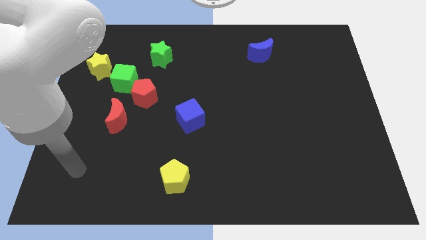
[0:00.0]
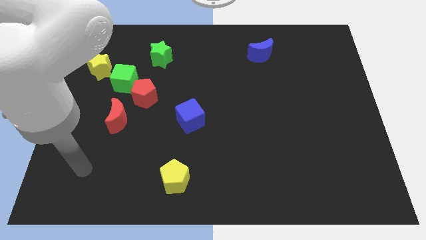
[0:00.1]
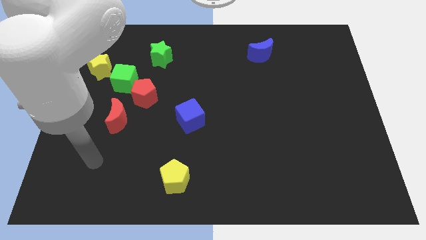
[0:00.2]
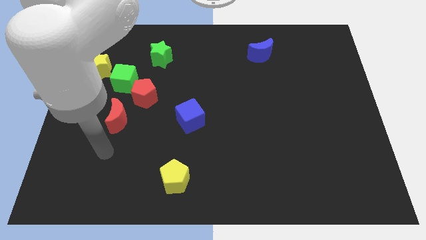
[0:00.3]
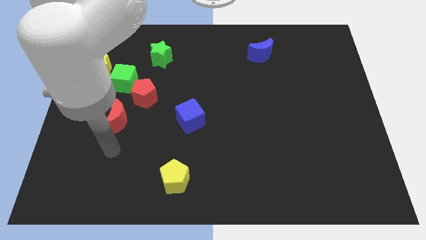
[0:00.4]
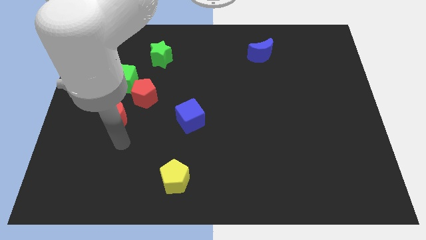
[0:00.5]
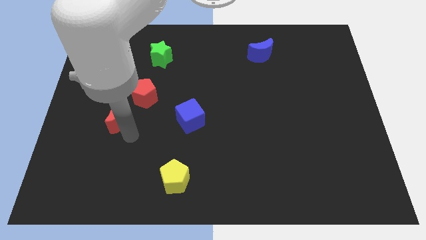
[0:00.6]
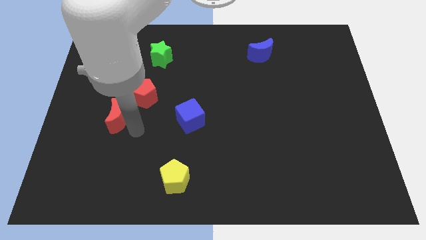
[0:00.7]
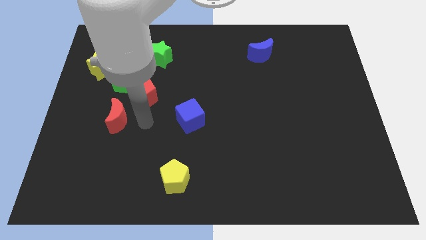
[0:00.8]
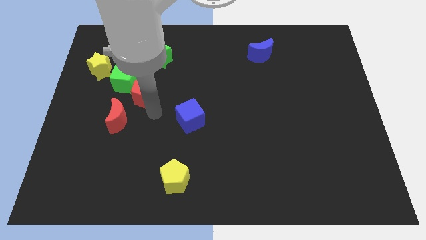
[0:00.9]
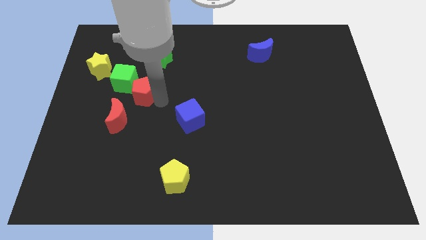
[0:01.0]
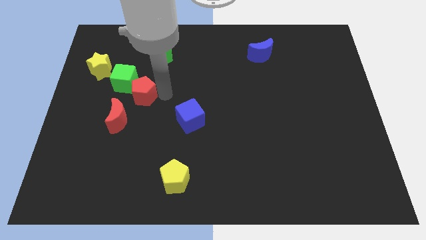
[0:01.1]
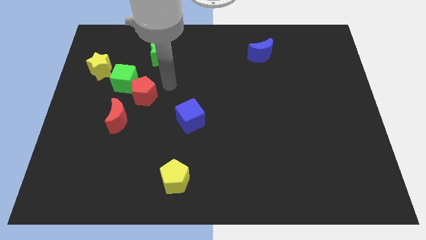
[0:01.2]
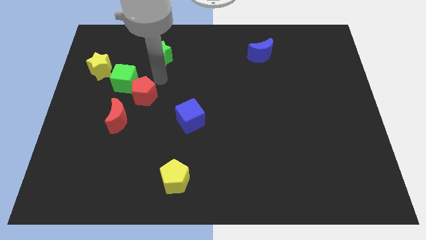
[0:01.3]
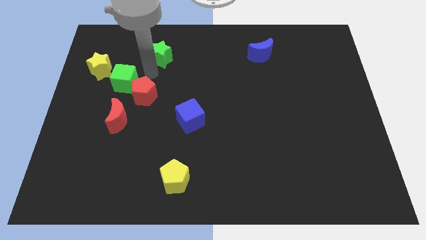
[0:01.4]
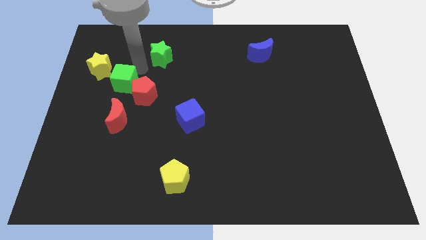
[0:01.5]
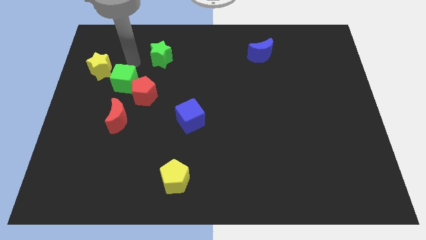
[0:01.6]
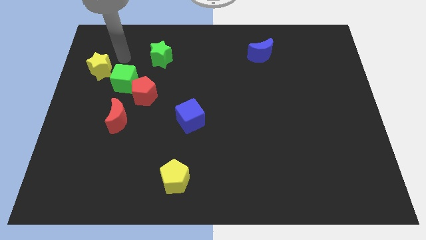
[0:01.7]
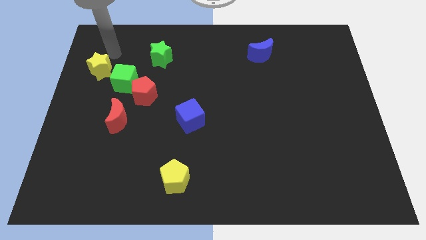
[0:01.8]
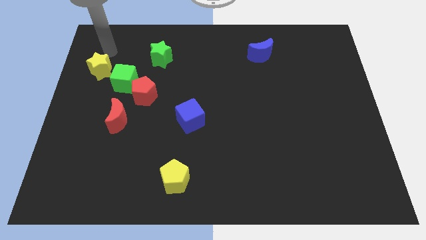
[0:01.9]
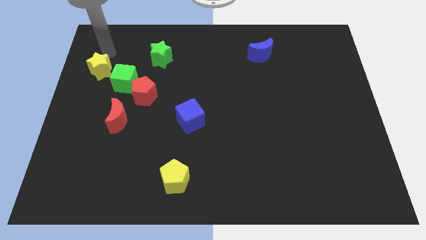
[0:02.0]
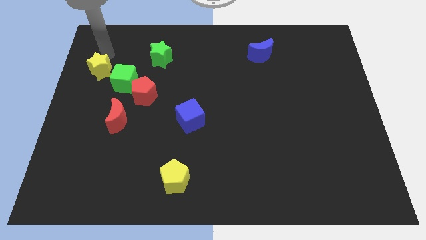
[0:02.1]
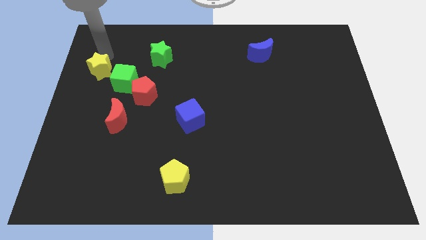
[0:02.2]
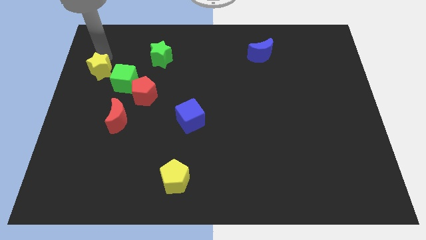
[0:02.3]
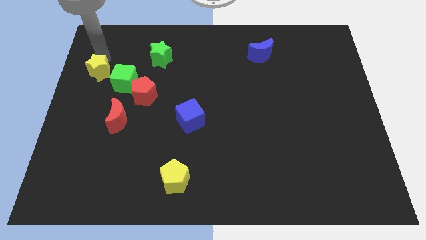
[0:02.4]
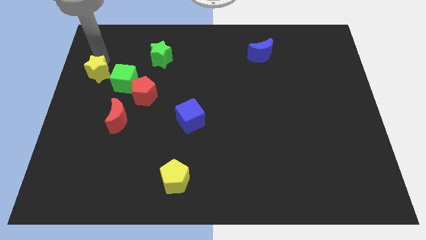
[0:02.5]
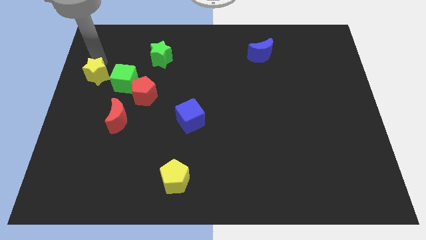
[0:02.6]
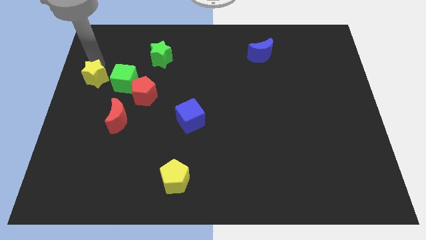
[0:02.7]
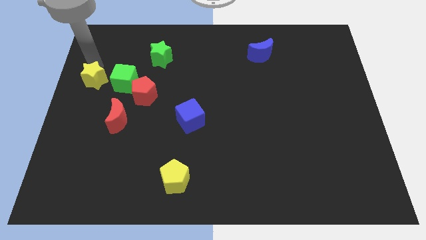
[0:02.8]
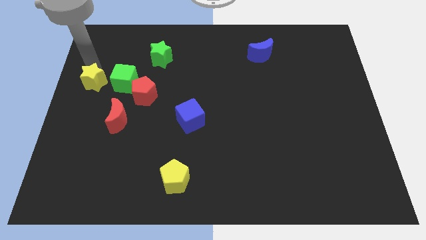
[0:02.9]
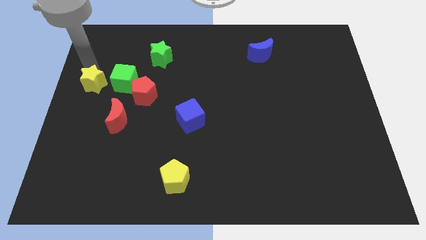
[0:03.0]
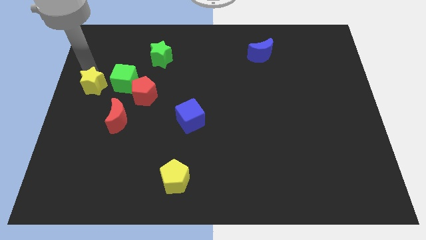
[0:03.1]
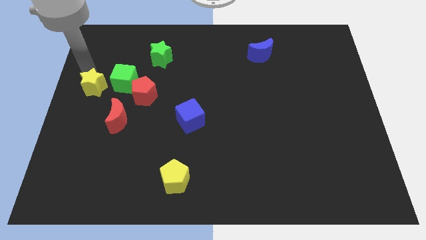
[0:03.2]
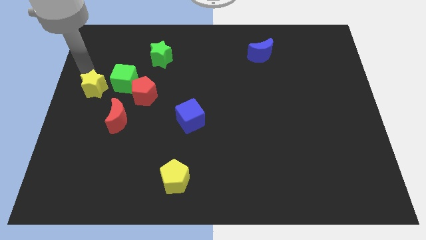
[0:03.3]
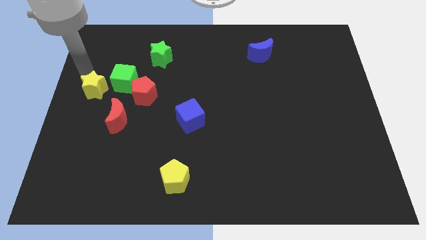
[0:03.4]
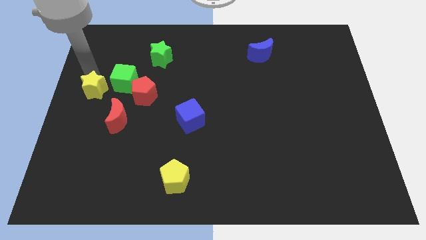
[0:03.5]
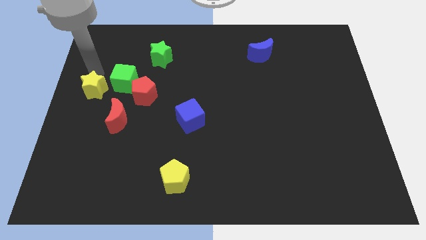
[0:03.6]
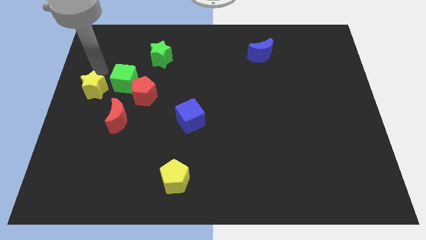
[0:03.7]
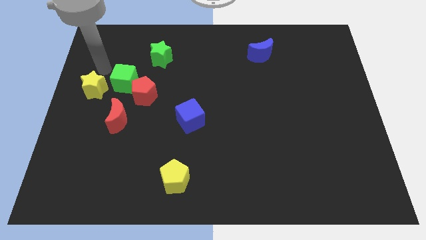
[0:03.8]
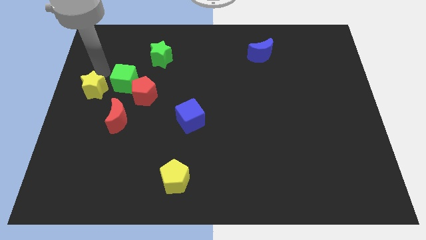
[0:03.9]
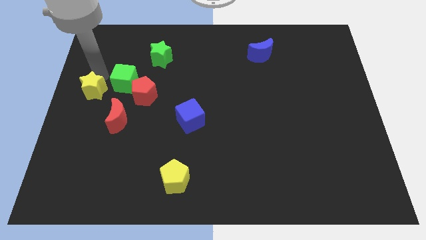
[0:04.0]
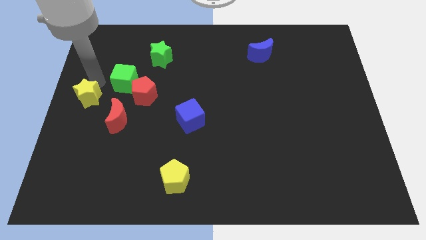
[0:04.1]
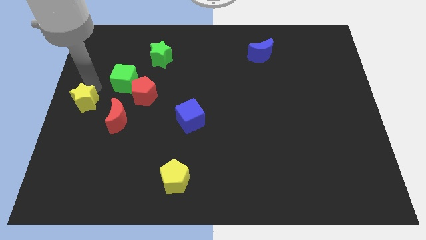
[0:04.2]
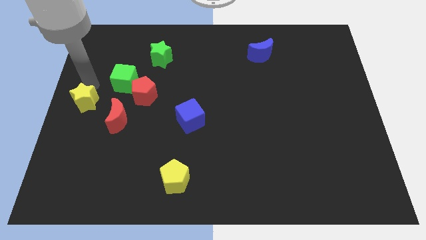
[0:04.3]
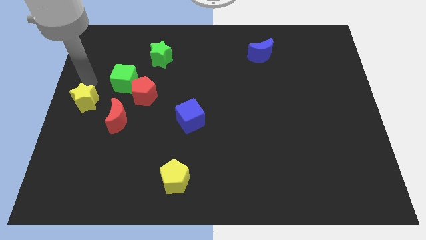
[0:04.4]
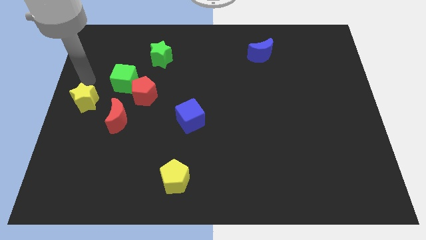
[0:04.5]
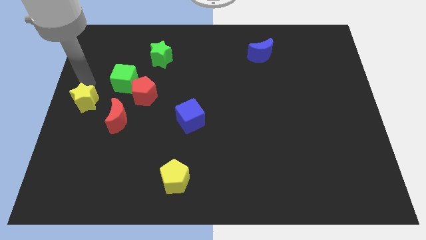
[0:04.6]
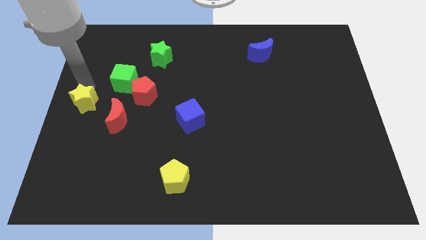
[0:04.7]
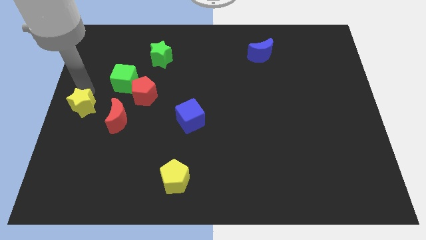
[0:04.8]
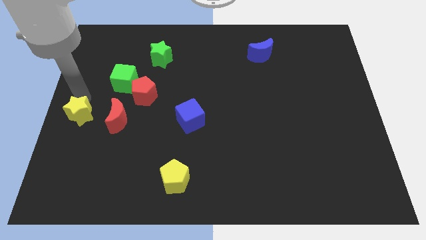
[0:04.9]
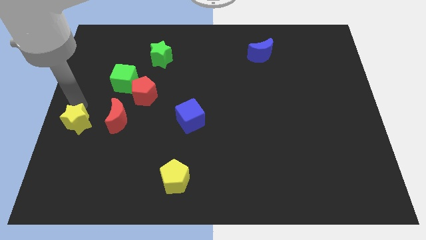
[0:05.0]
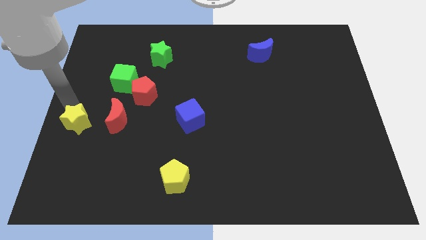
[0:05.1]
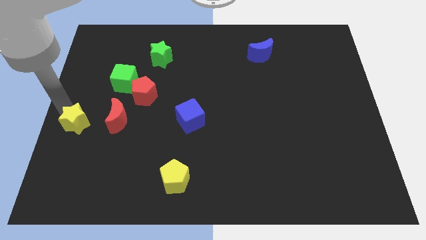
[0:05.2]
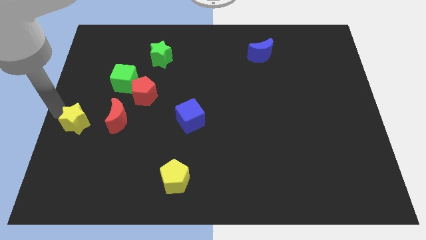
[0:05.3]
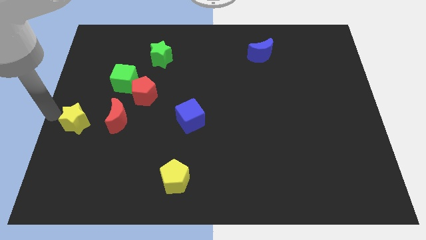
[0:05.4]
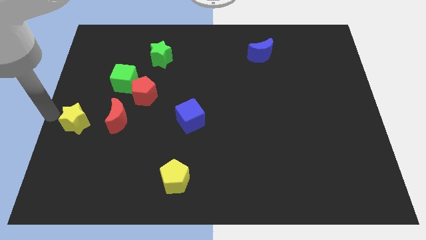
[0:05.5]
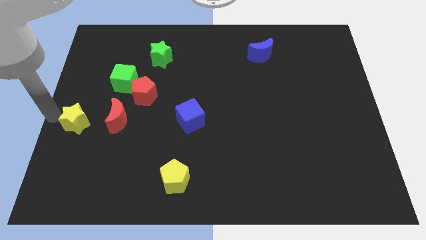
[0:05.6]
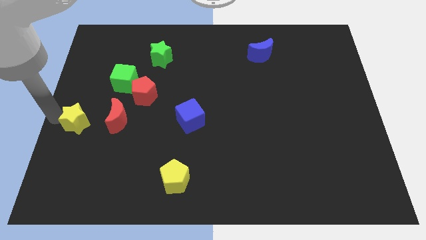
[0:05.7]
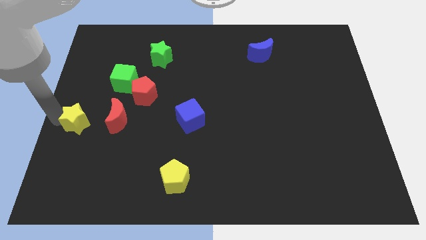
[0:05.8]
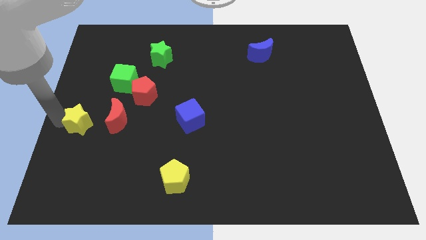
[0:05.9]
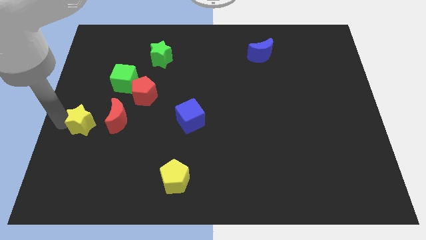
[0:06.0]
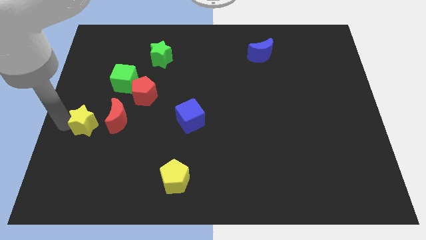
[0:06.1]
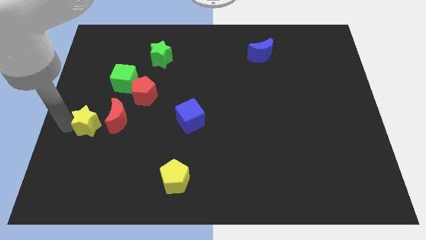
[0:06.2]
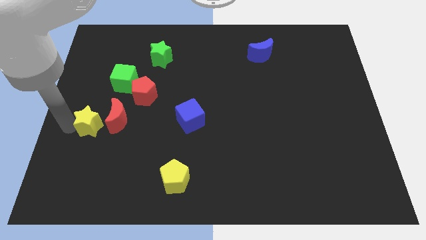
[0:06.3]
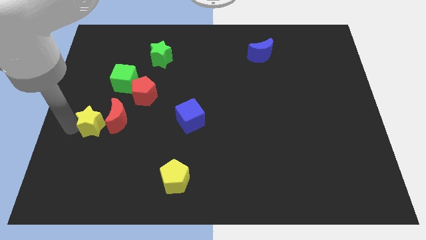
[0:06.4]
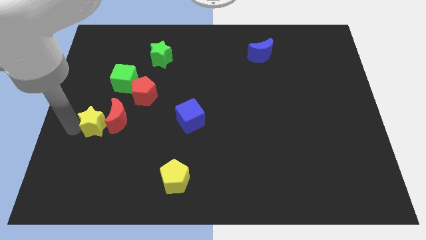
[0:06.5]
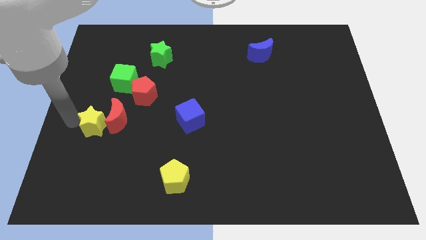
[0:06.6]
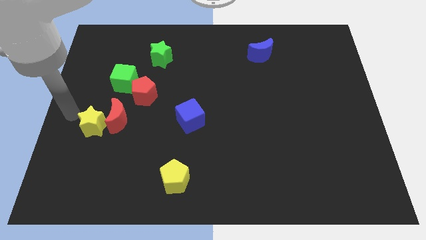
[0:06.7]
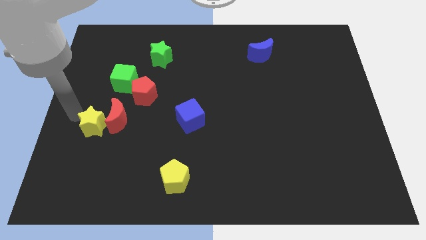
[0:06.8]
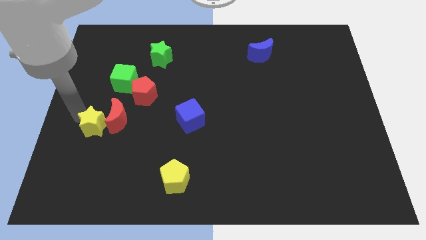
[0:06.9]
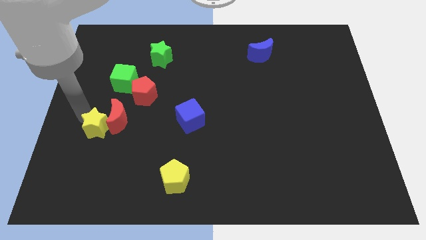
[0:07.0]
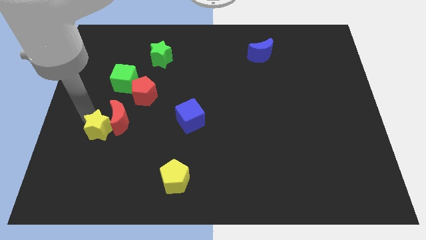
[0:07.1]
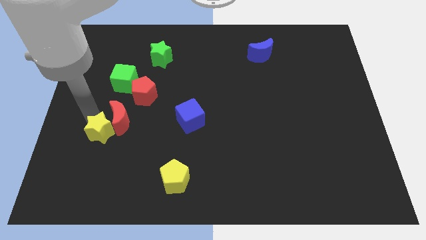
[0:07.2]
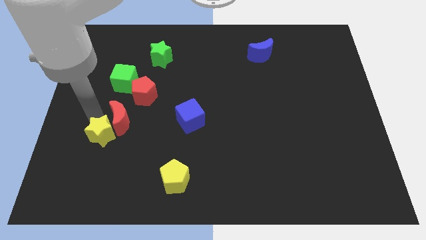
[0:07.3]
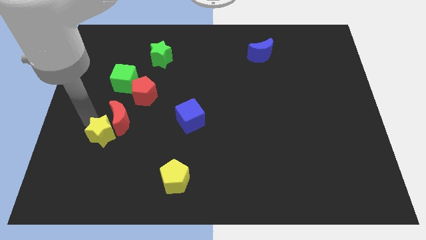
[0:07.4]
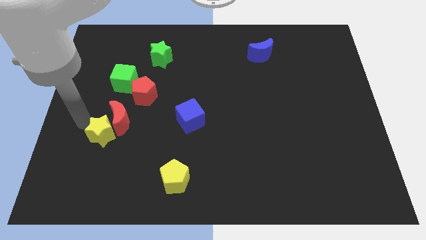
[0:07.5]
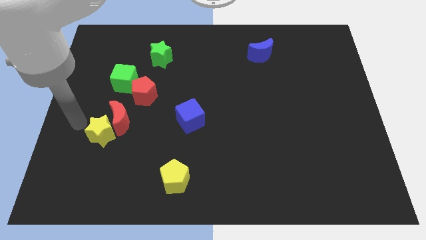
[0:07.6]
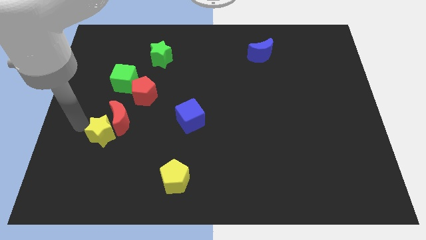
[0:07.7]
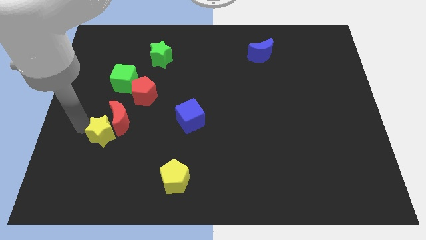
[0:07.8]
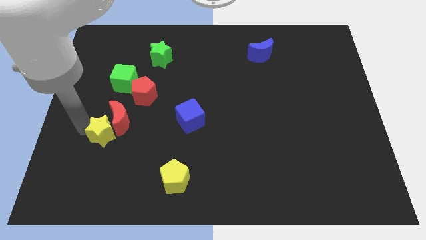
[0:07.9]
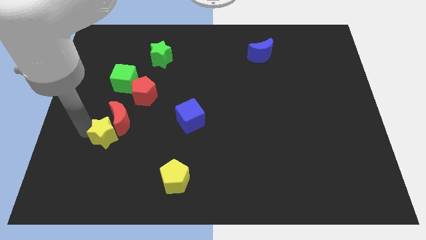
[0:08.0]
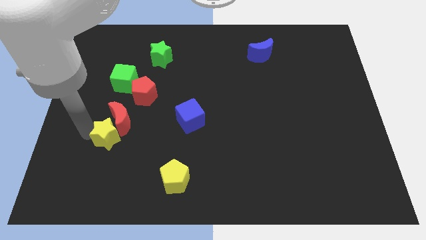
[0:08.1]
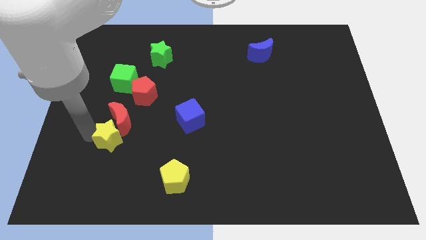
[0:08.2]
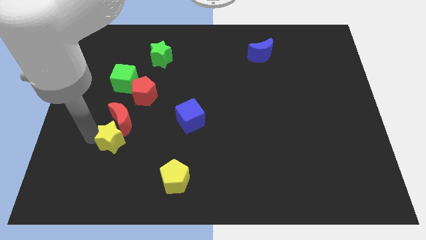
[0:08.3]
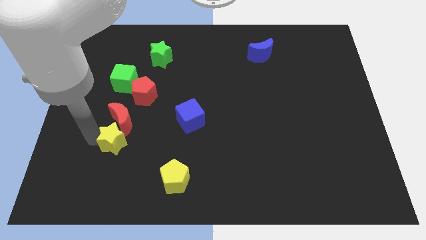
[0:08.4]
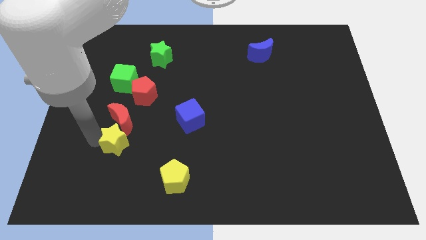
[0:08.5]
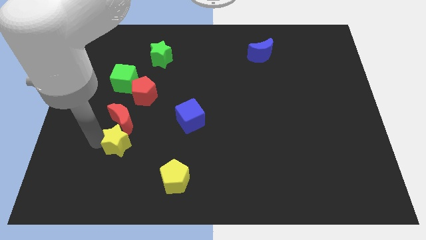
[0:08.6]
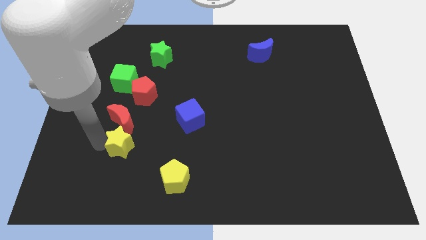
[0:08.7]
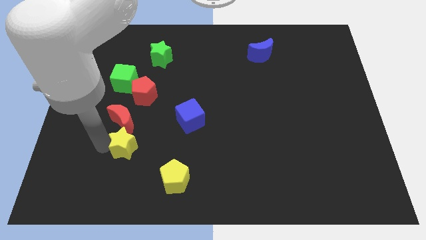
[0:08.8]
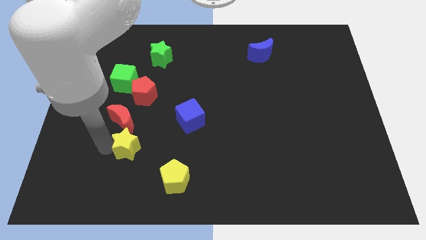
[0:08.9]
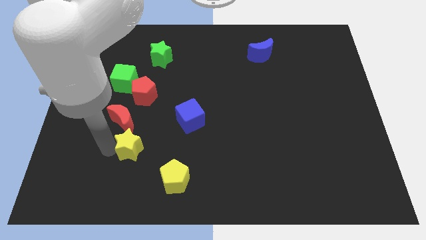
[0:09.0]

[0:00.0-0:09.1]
put the yellow star to the top left side of the yellow pentagon
